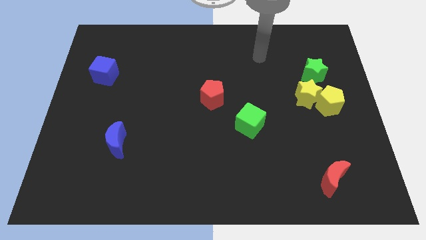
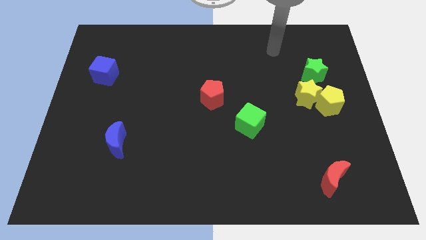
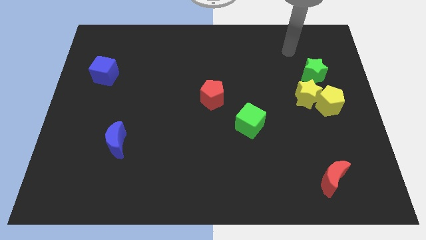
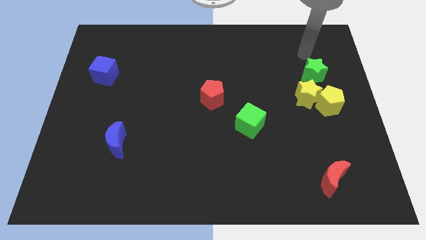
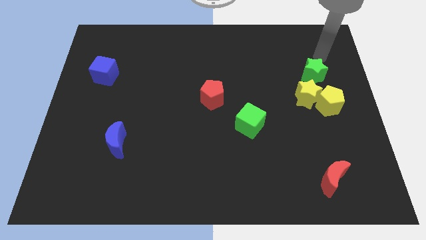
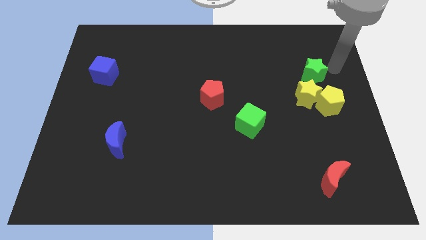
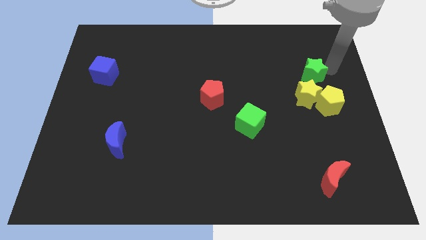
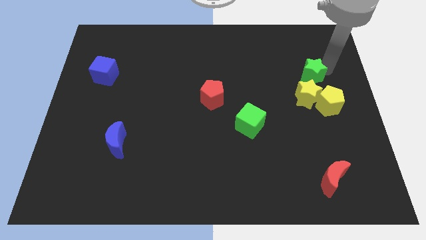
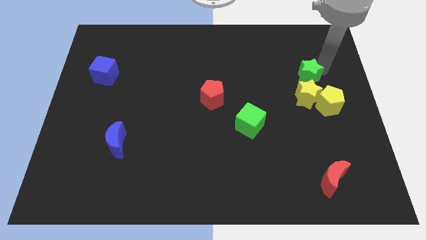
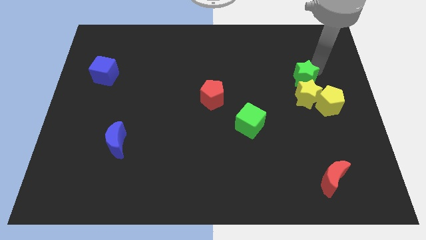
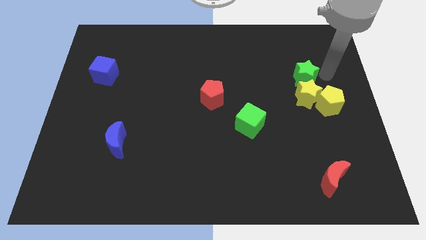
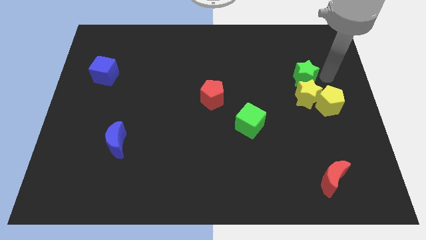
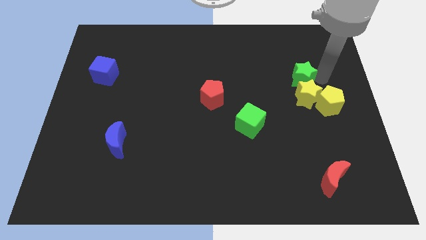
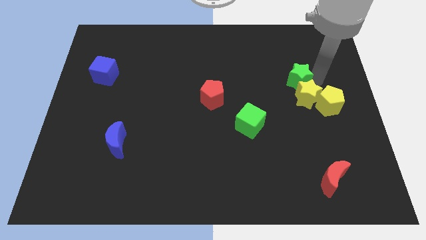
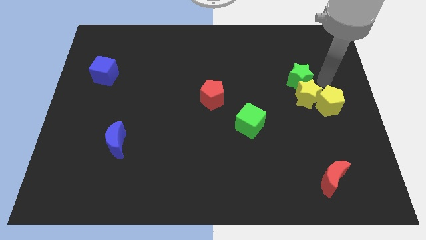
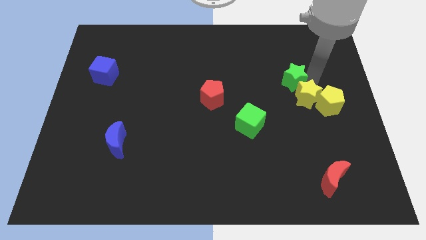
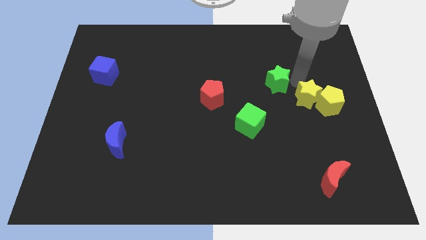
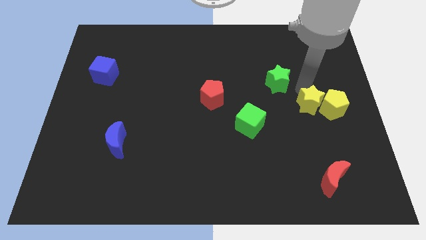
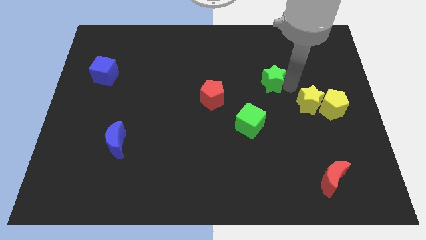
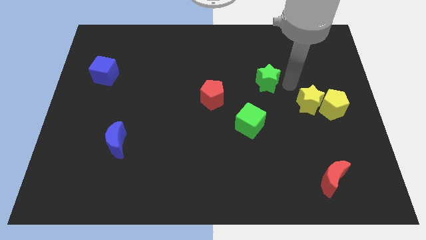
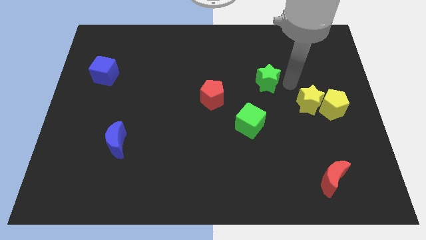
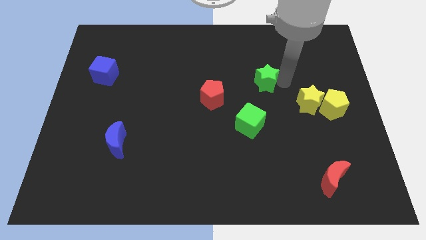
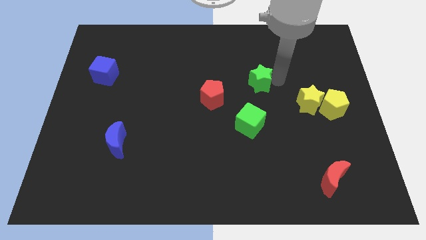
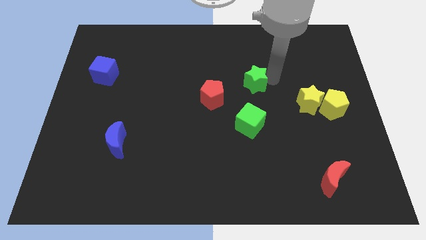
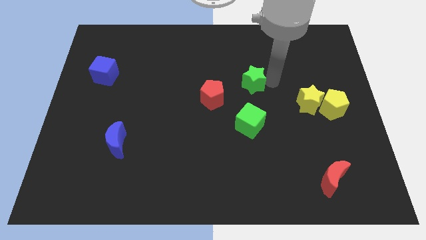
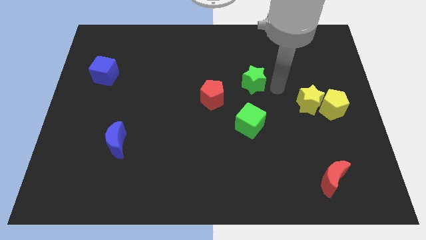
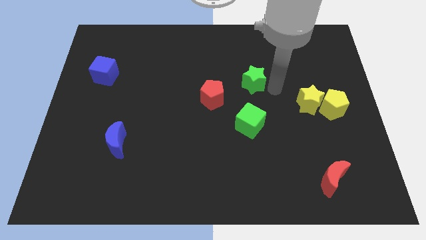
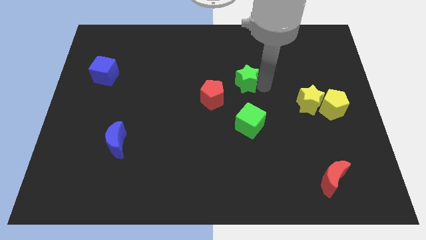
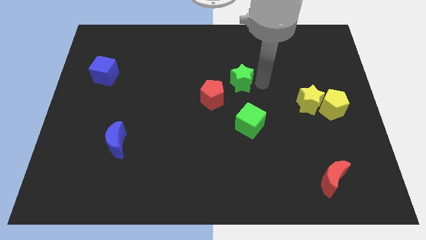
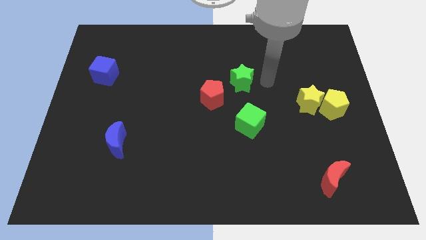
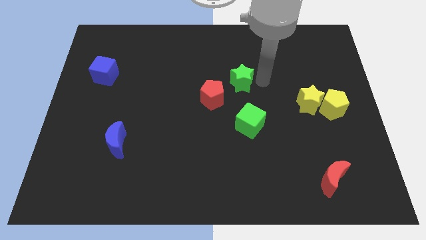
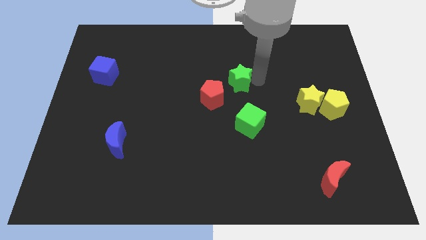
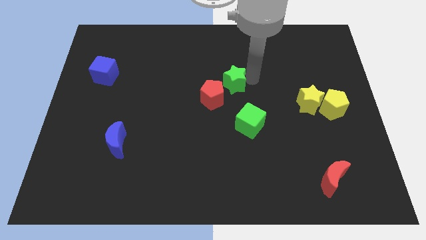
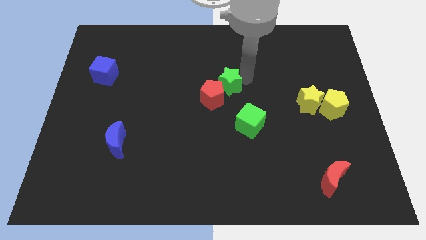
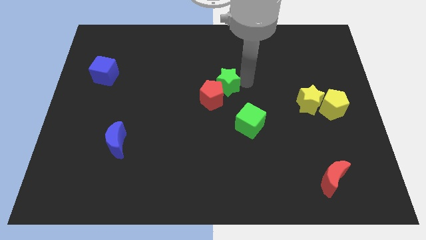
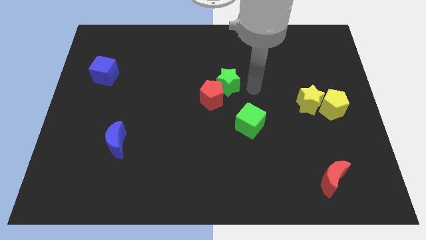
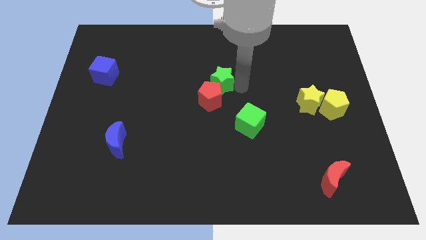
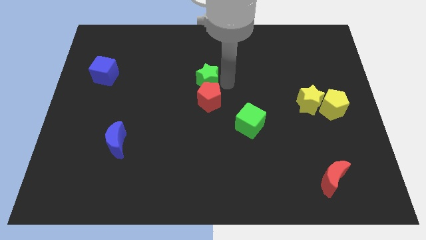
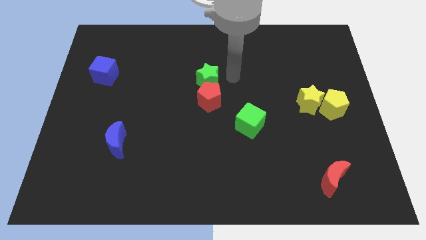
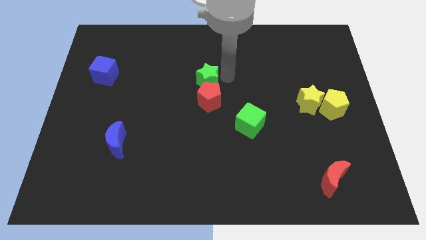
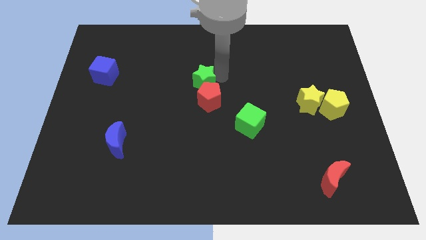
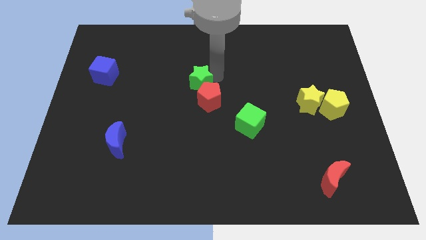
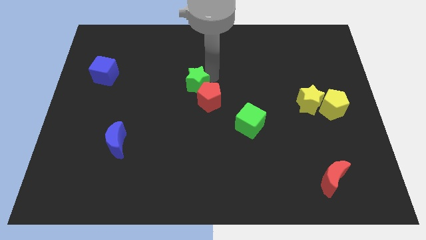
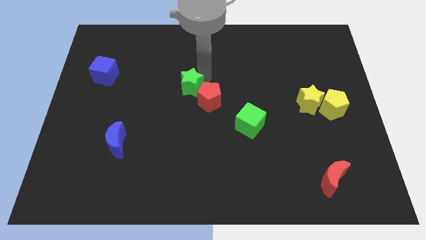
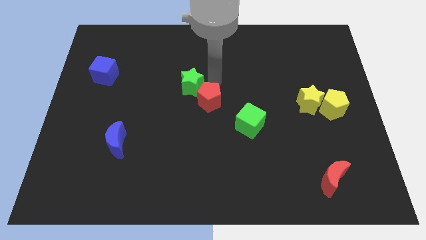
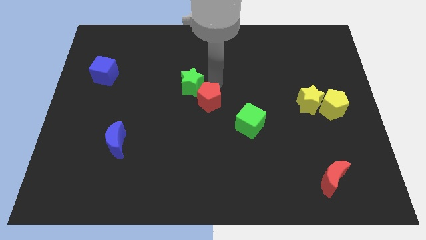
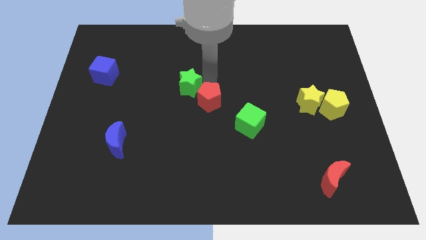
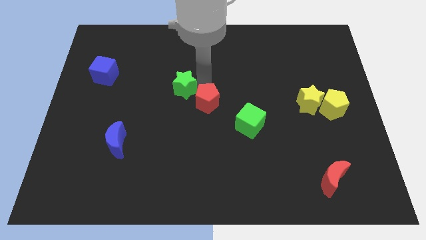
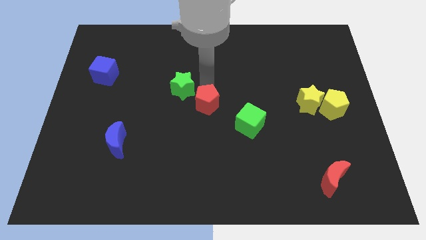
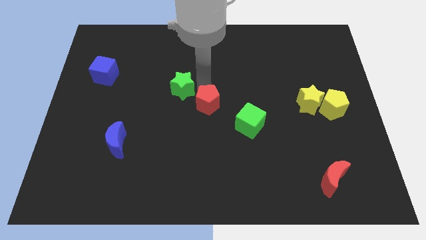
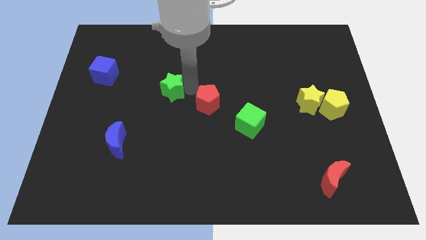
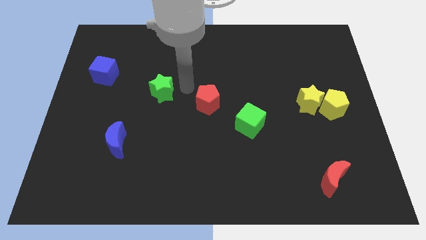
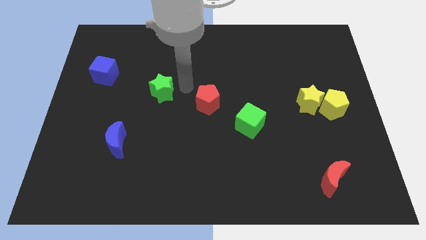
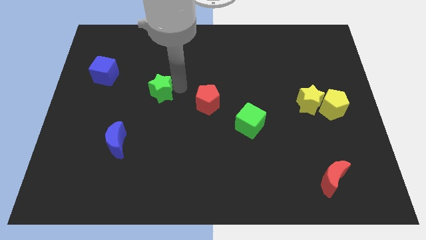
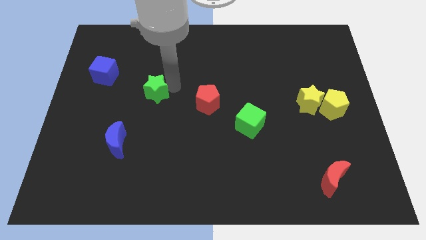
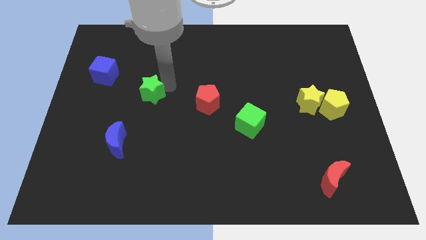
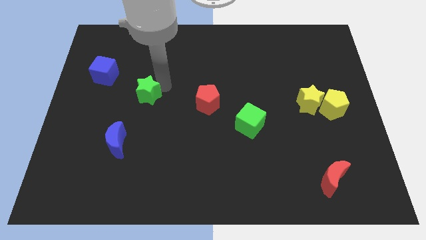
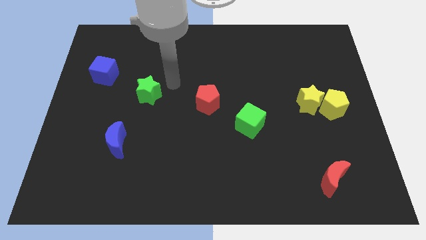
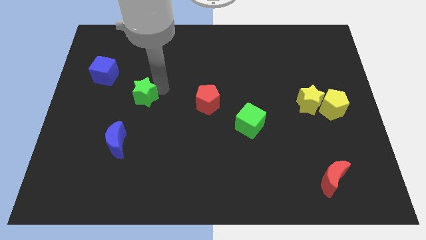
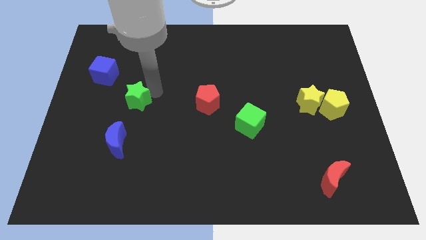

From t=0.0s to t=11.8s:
move the green star to the top of the blue moon

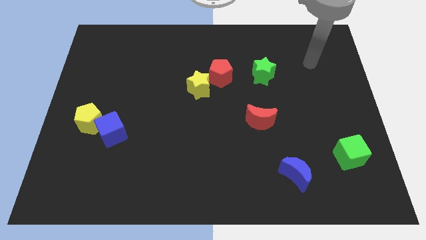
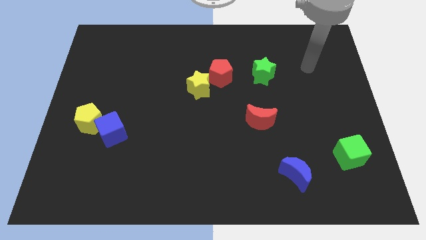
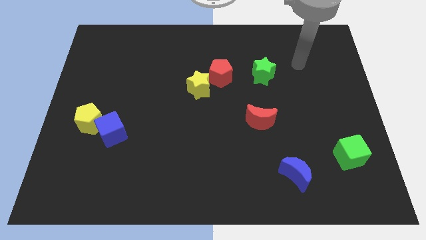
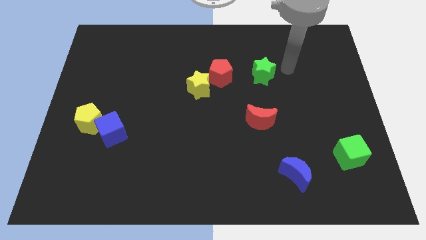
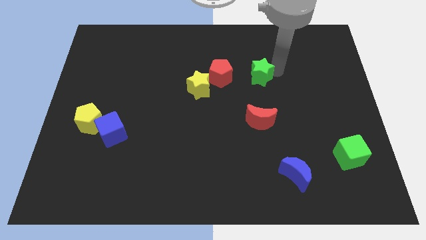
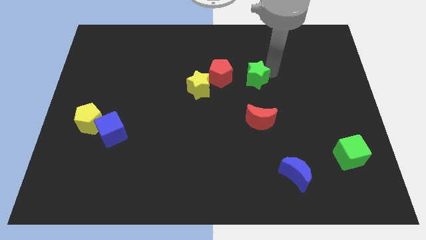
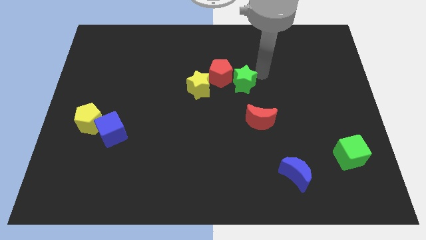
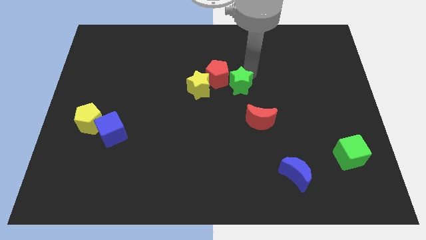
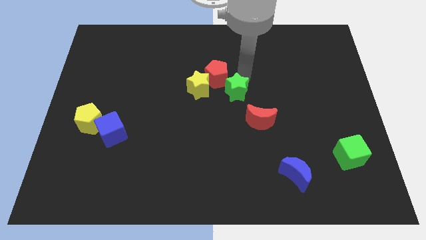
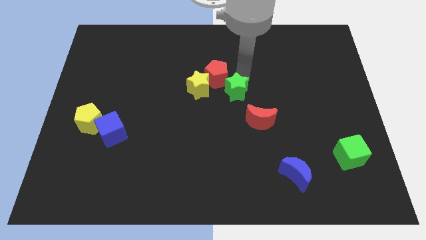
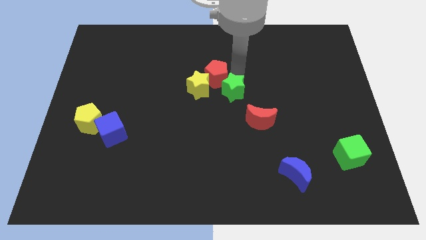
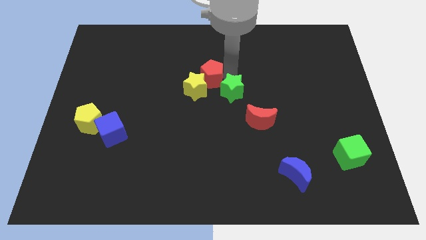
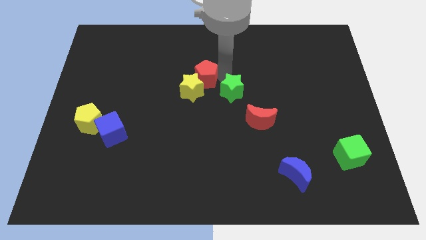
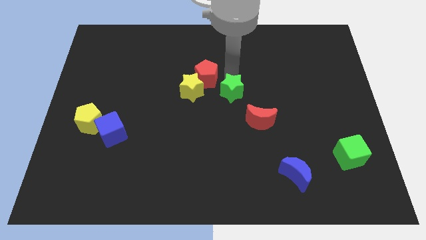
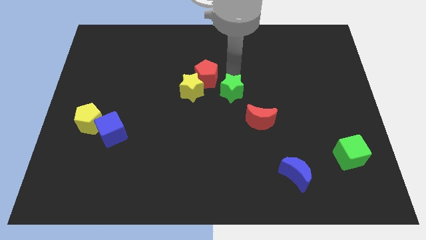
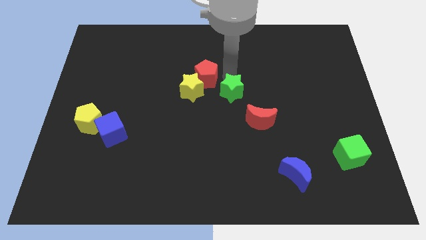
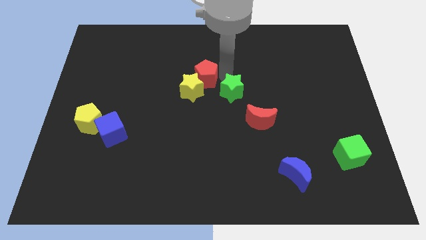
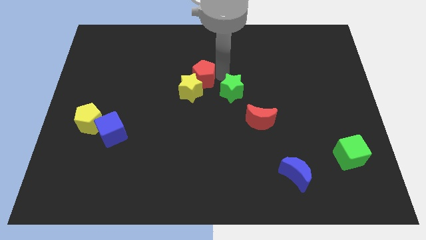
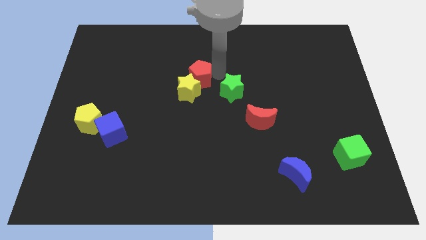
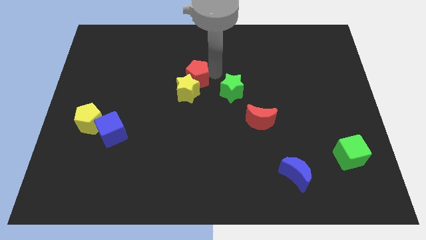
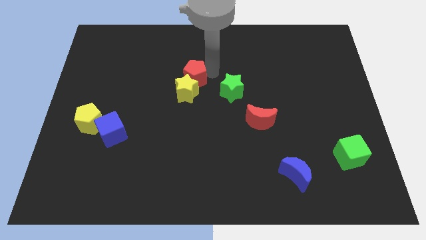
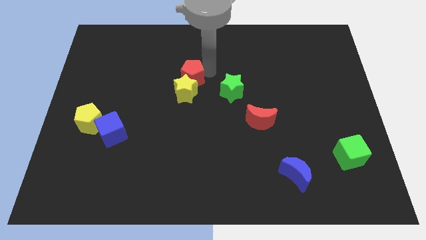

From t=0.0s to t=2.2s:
slide the red pentagon diagonally up and to the left of the yellow star
